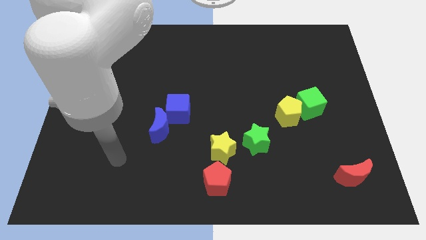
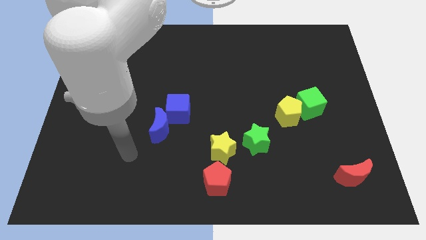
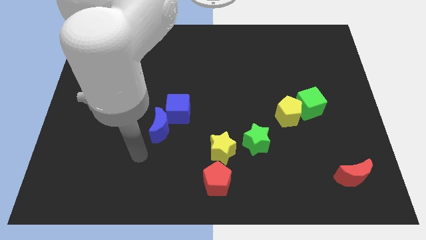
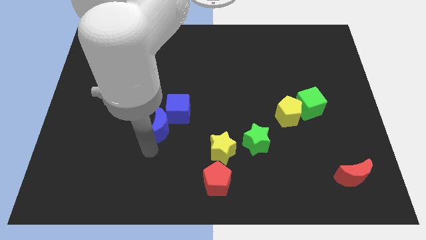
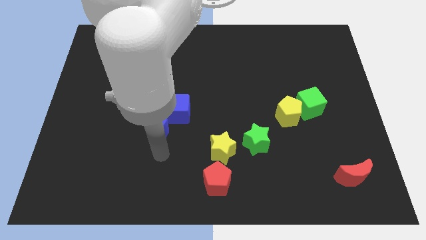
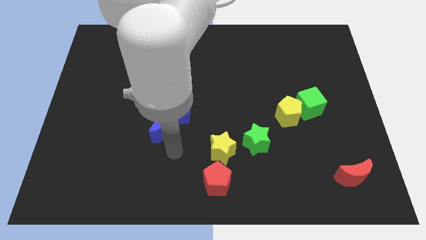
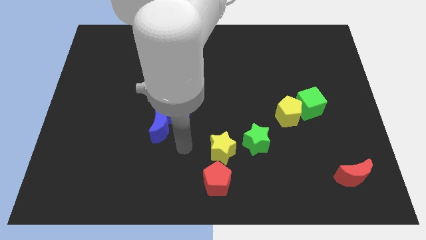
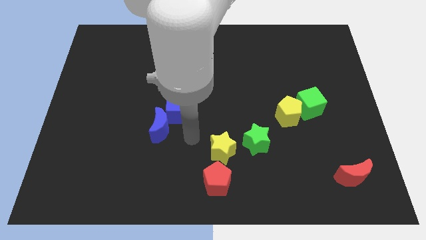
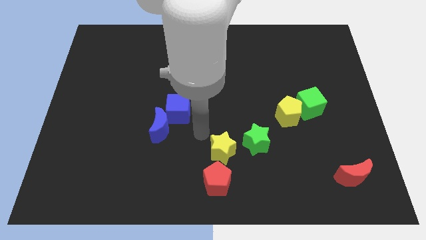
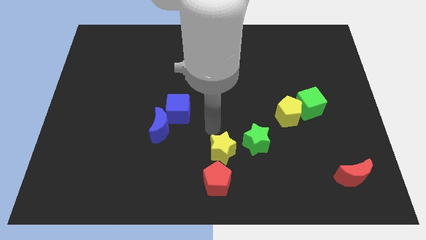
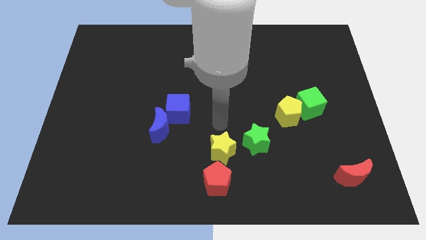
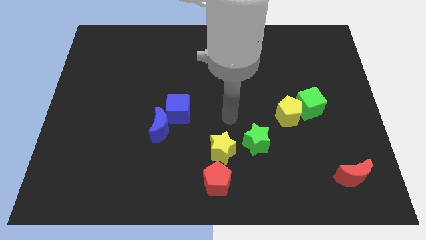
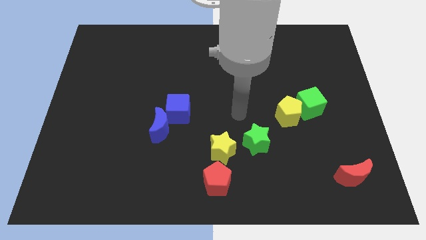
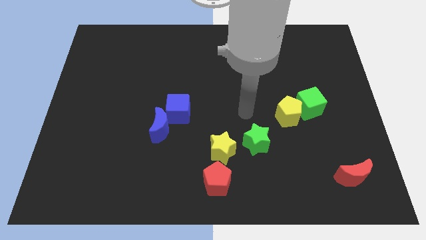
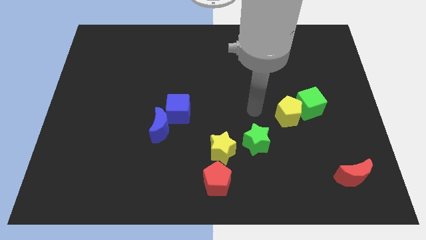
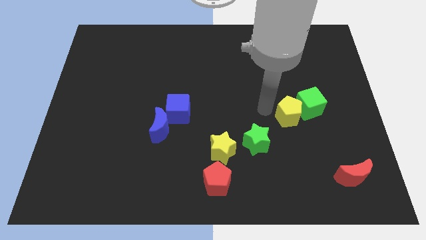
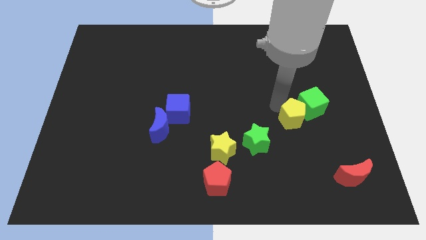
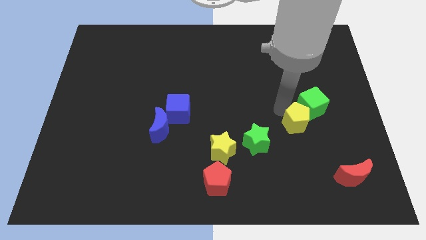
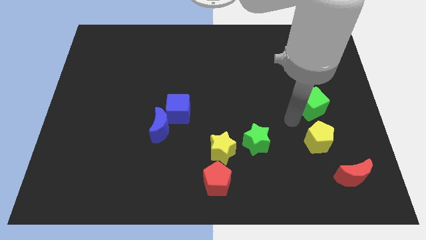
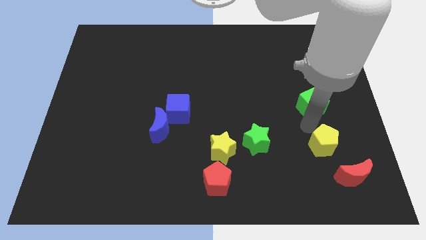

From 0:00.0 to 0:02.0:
separate the green cube from the yellow pentagon

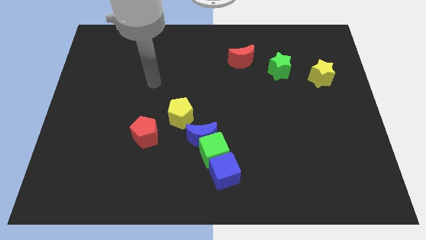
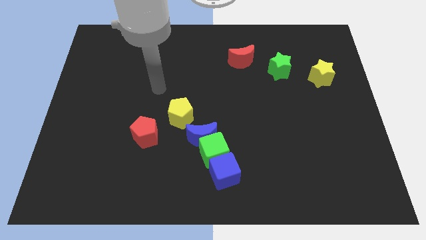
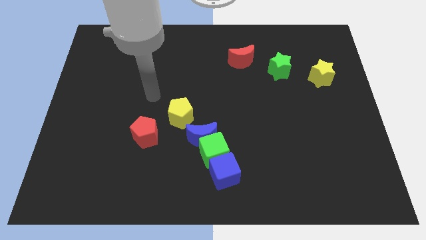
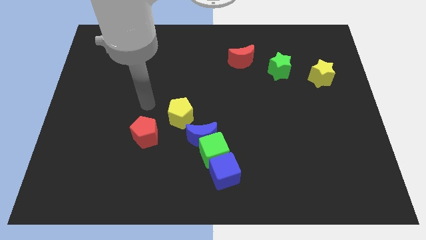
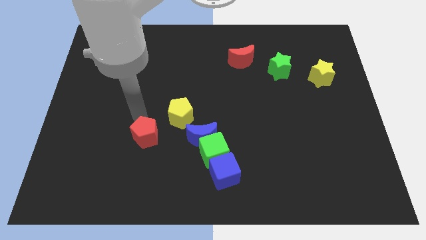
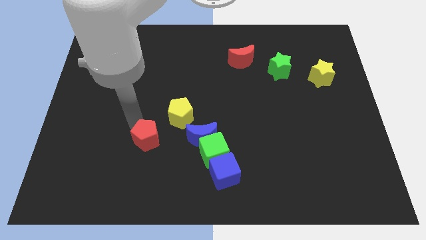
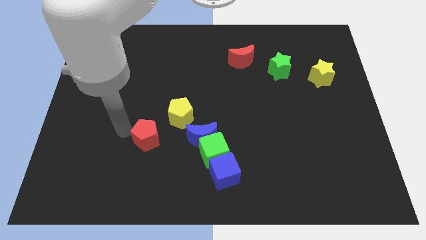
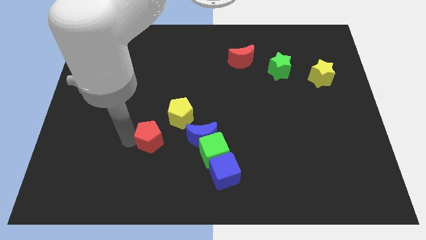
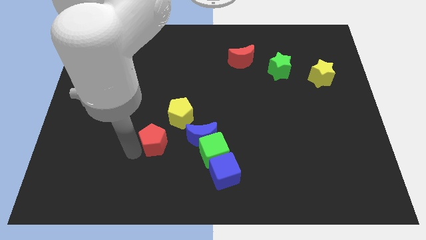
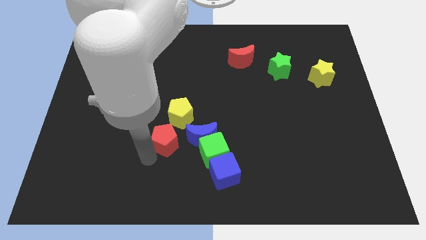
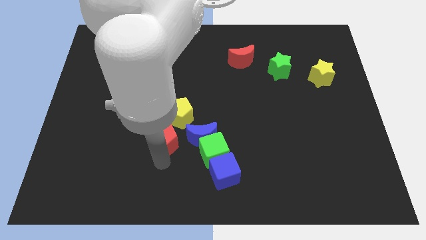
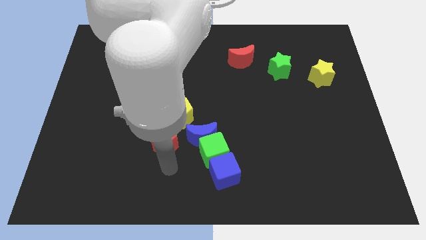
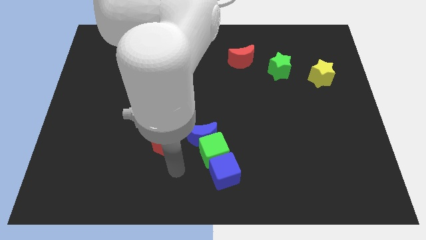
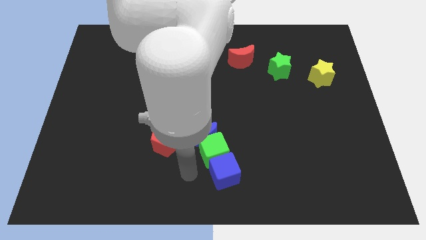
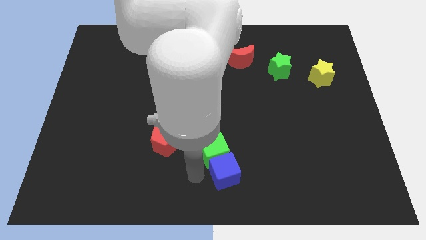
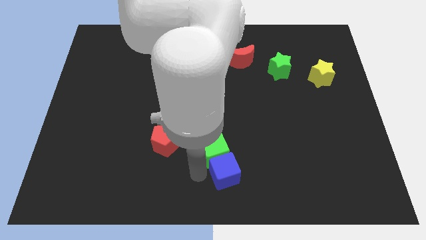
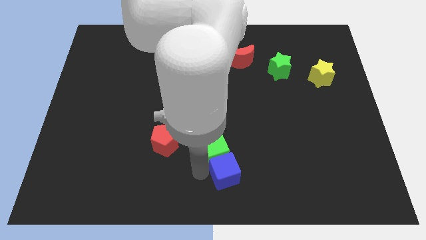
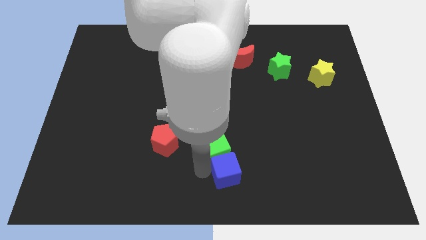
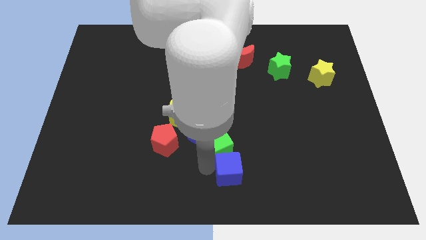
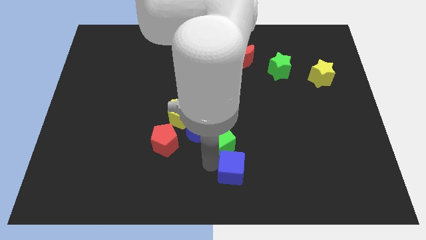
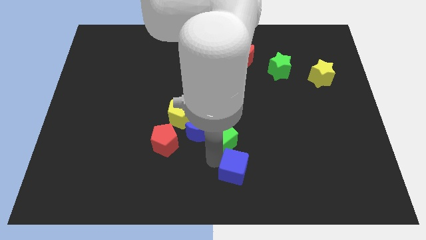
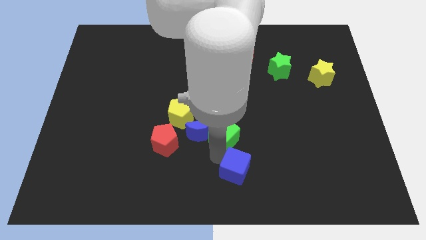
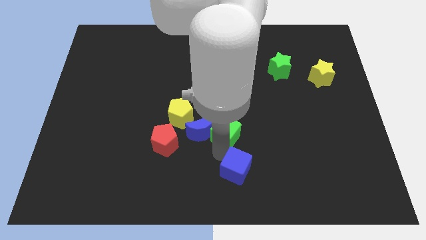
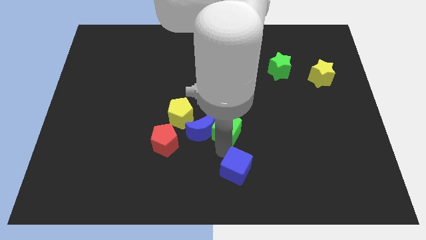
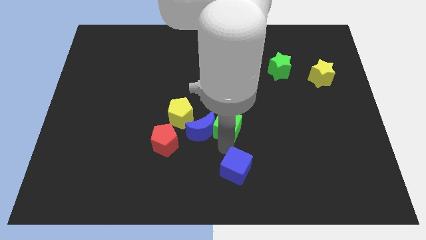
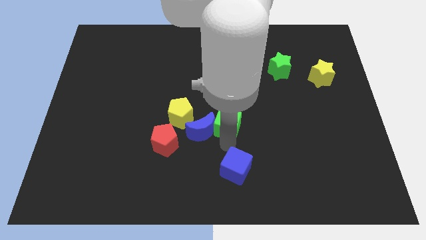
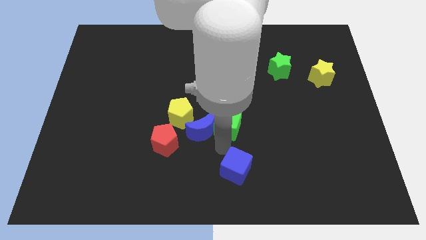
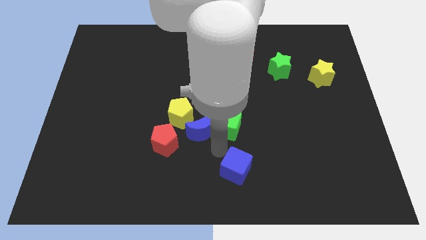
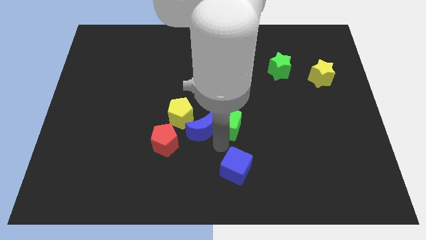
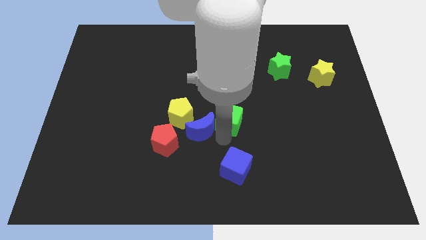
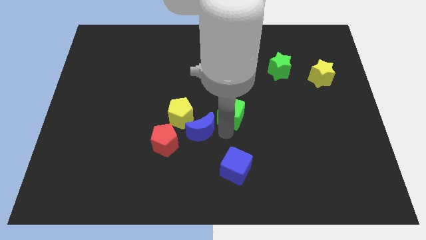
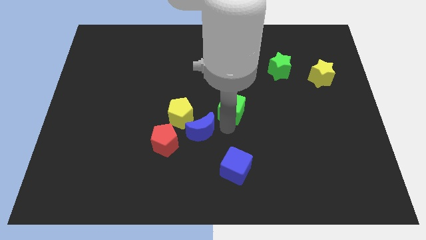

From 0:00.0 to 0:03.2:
move the green cube away from the blue moon and blue cube

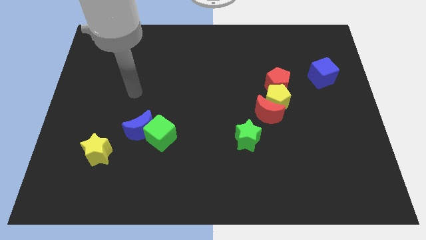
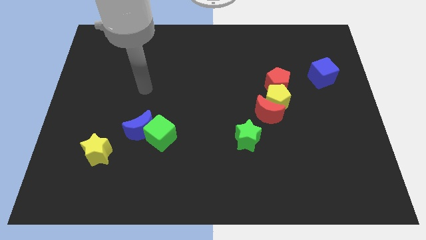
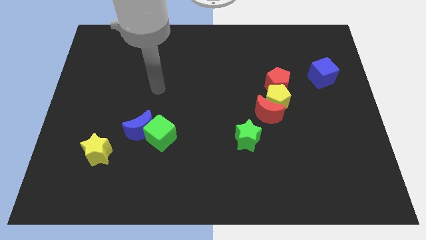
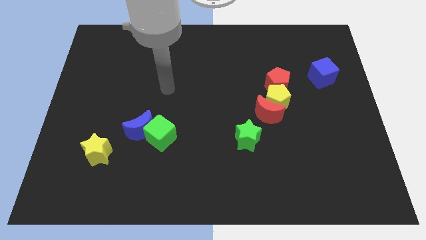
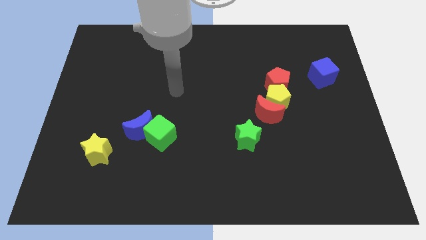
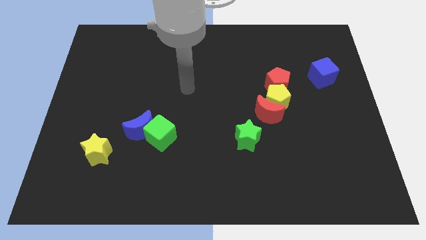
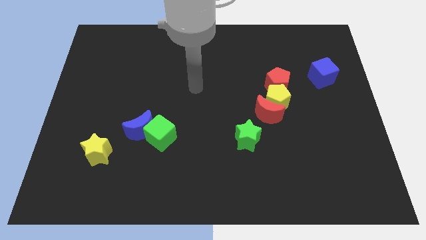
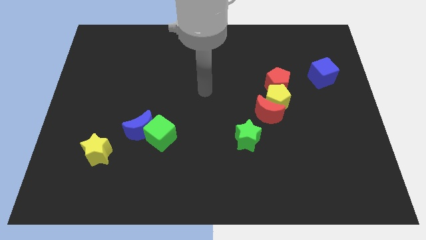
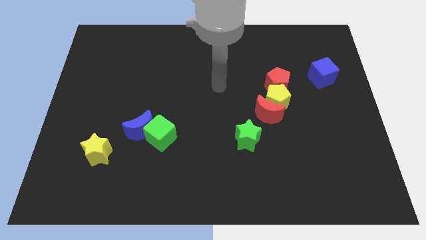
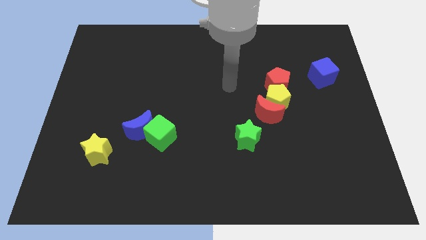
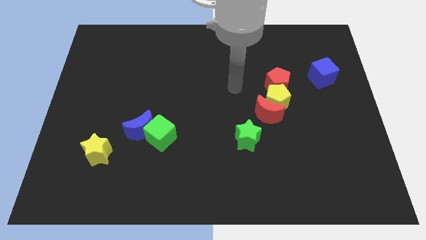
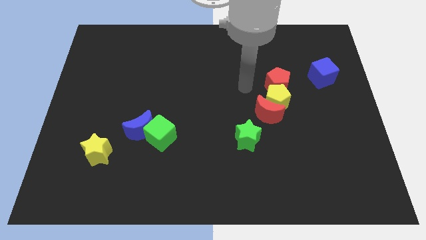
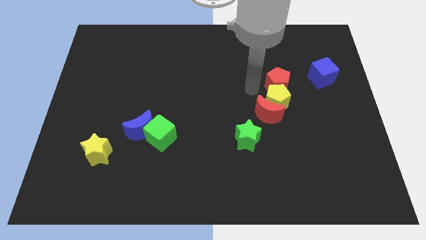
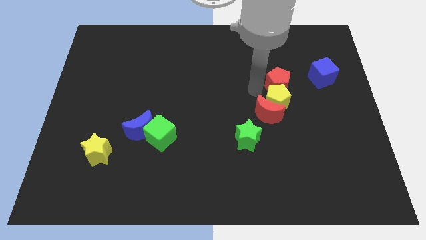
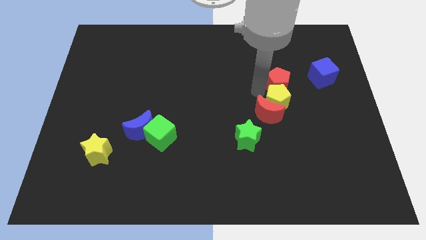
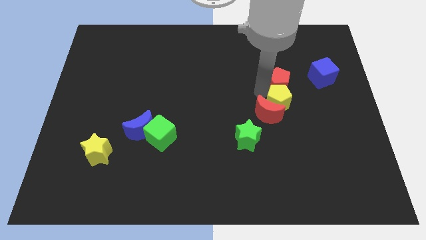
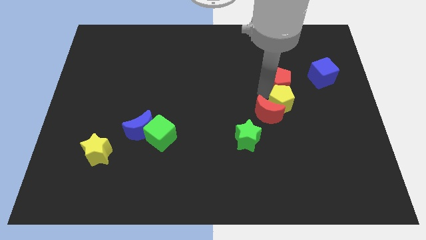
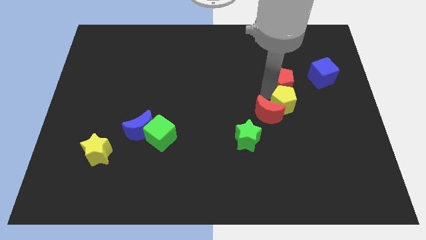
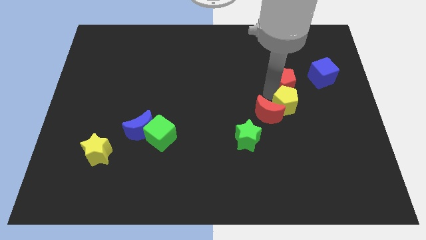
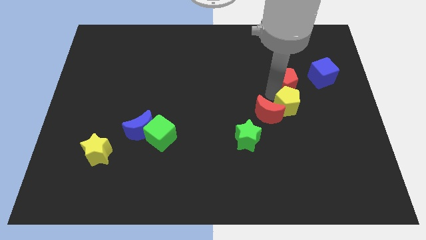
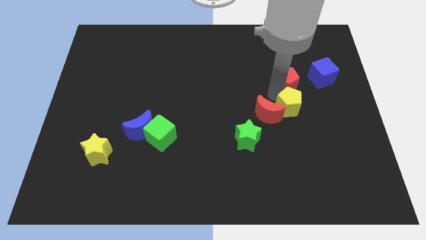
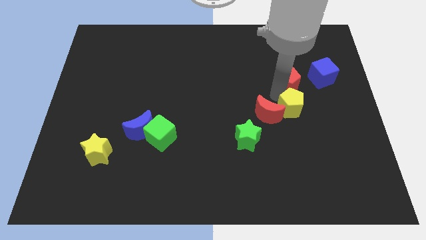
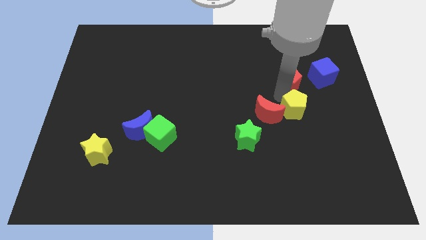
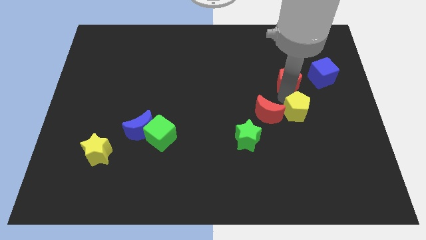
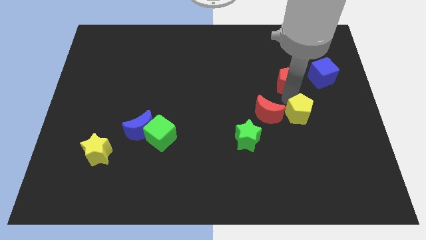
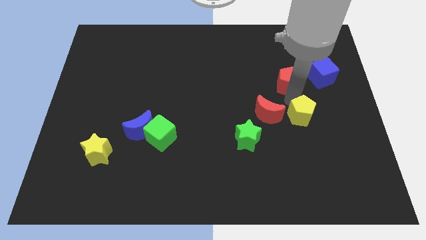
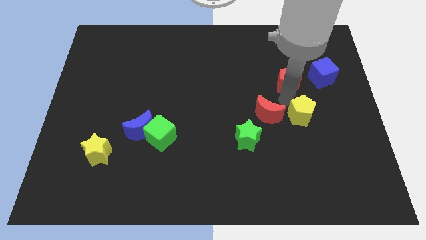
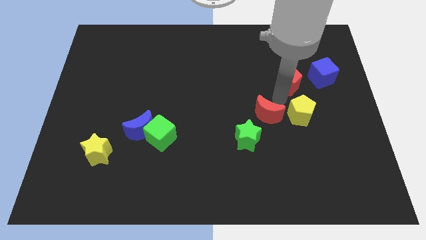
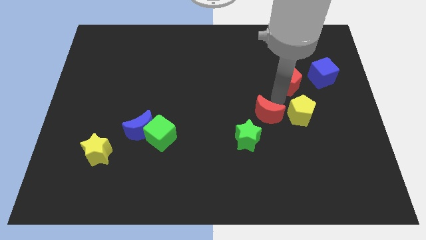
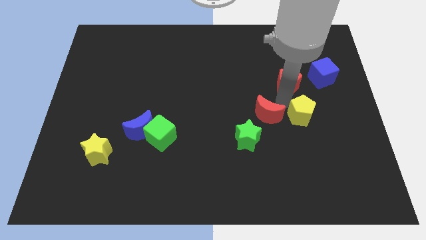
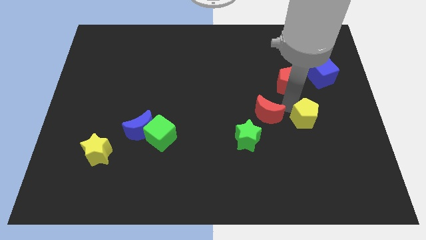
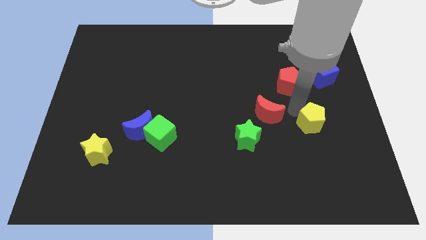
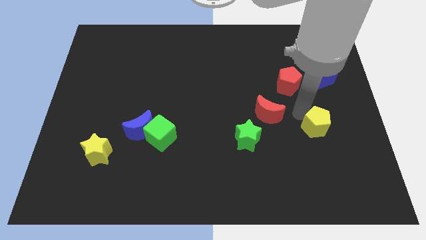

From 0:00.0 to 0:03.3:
pull the yellow pentagon apart from the red moon and red pentagon

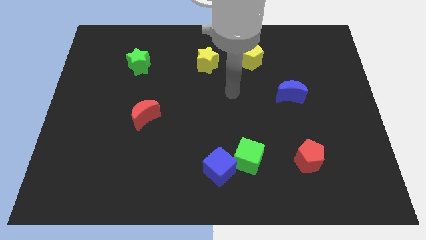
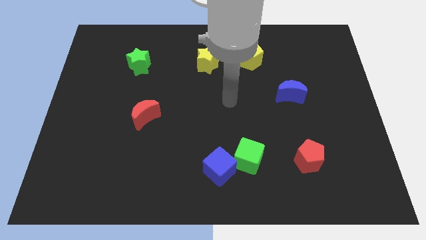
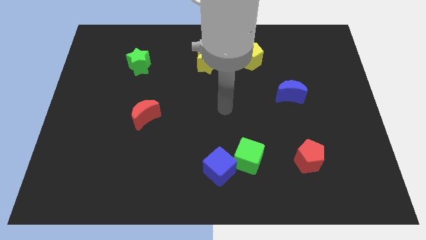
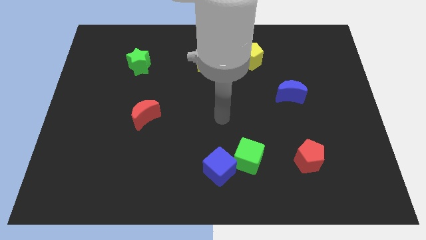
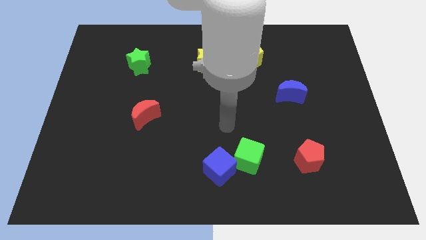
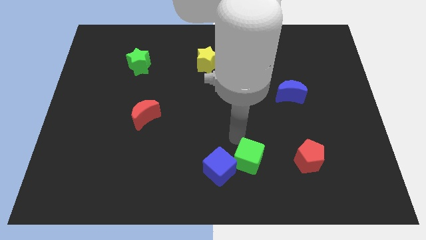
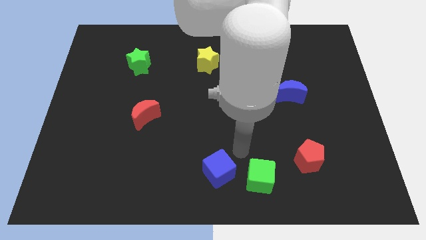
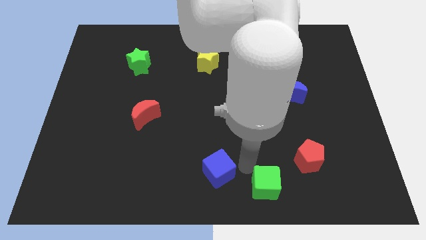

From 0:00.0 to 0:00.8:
move the blue cube away from the green cube
